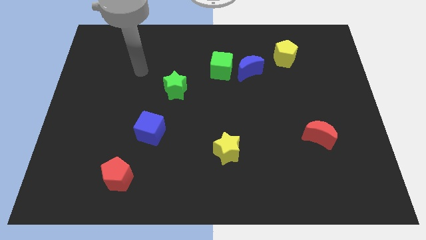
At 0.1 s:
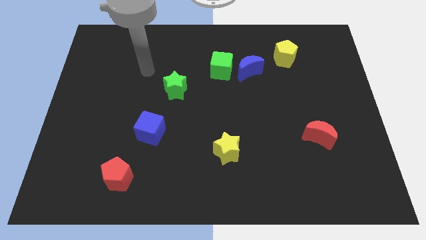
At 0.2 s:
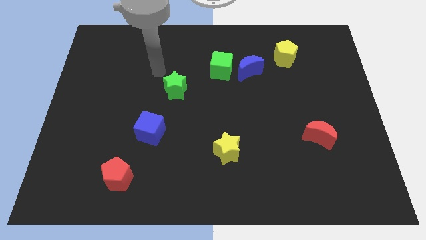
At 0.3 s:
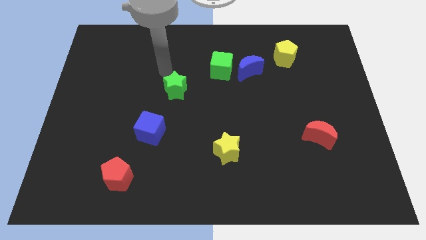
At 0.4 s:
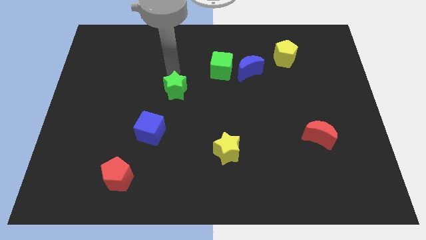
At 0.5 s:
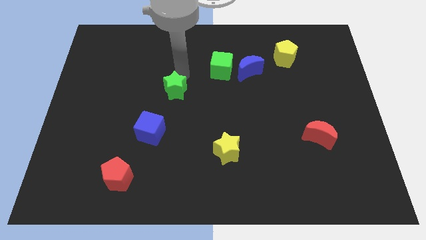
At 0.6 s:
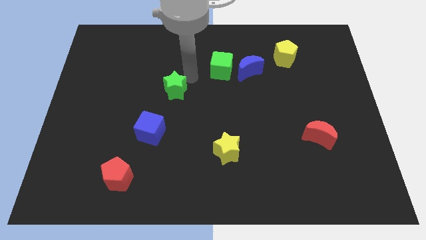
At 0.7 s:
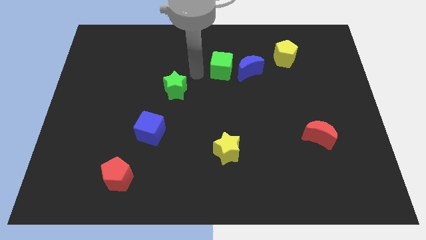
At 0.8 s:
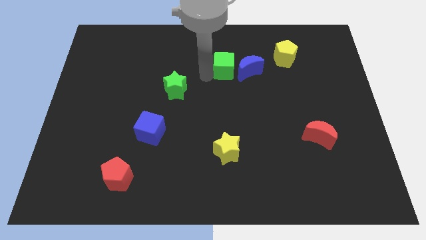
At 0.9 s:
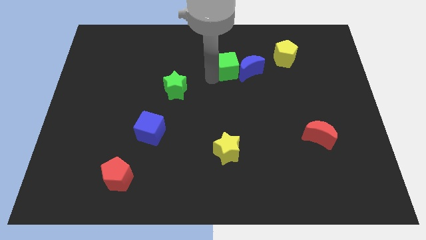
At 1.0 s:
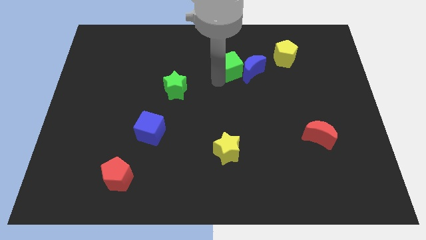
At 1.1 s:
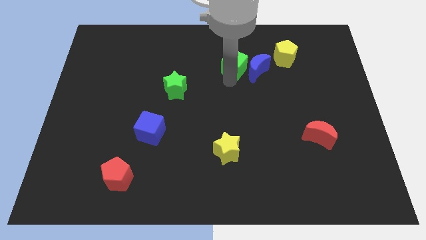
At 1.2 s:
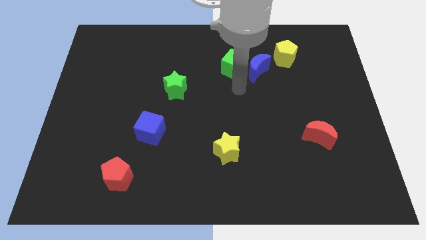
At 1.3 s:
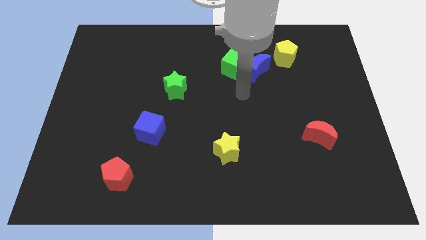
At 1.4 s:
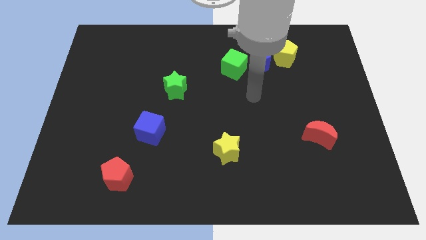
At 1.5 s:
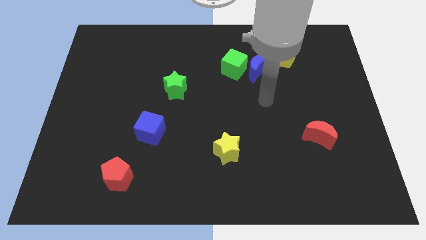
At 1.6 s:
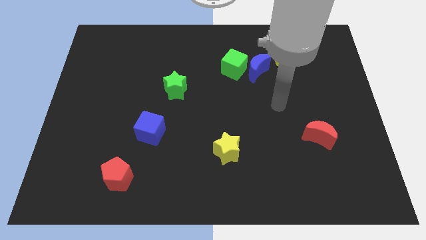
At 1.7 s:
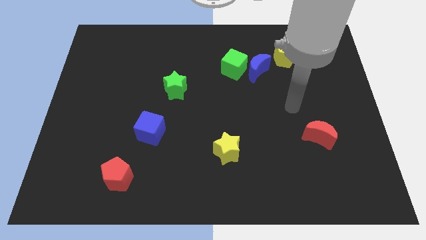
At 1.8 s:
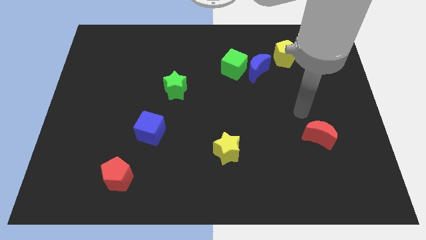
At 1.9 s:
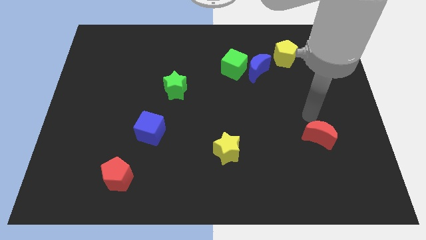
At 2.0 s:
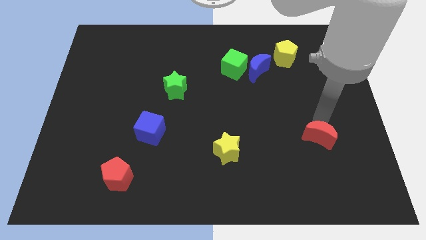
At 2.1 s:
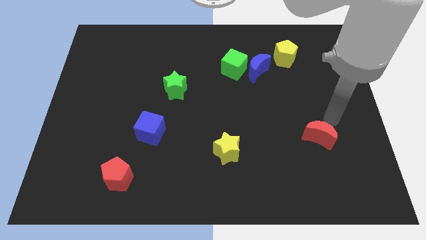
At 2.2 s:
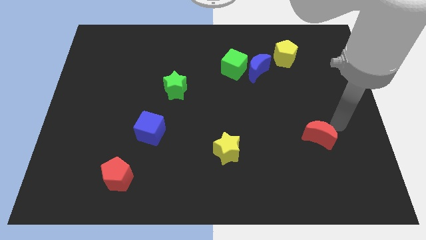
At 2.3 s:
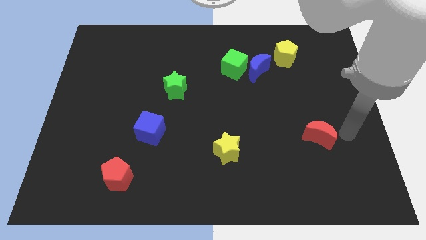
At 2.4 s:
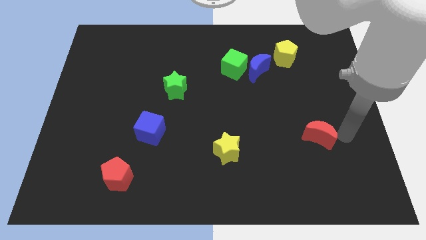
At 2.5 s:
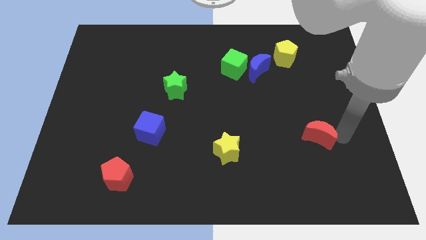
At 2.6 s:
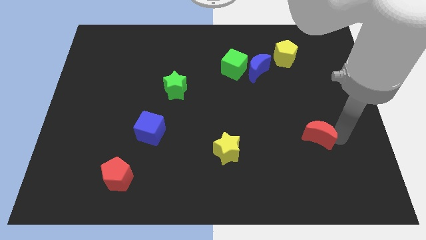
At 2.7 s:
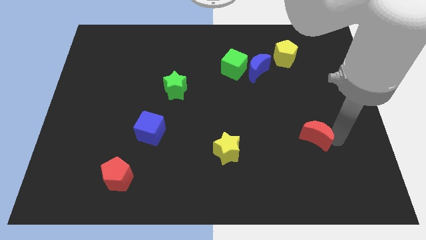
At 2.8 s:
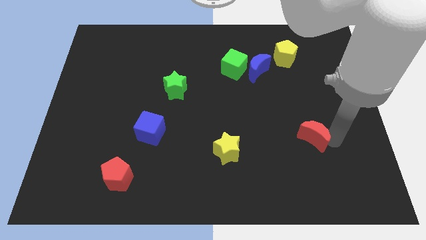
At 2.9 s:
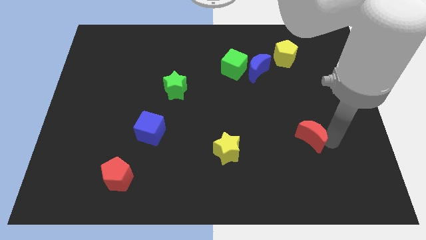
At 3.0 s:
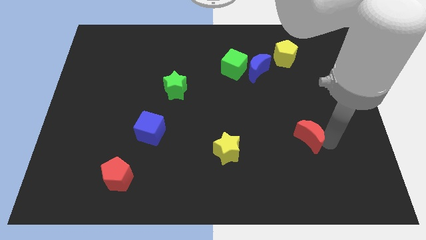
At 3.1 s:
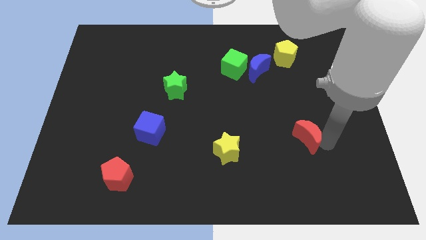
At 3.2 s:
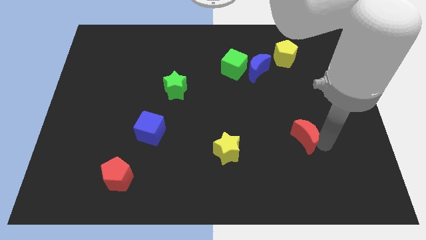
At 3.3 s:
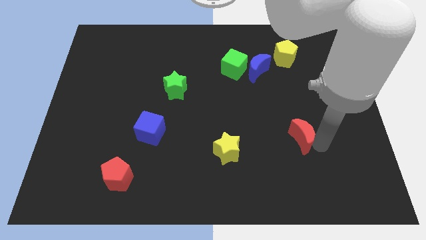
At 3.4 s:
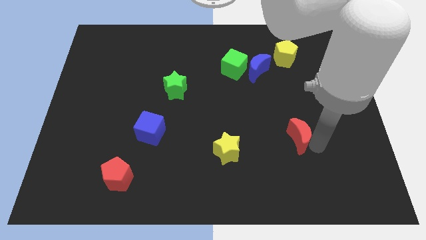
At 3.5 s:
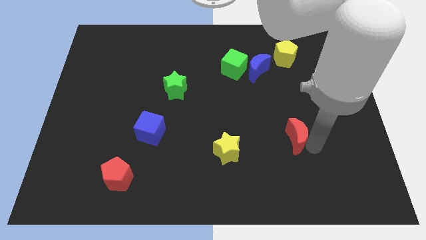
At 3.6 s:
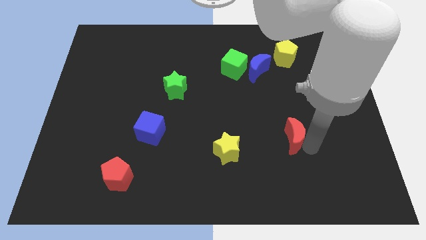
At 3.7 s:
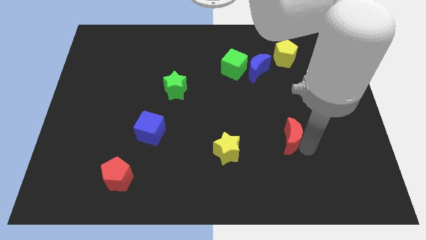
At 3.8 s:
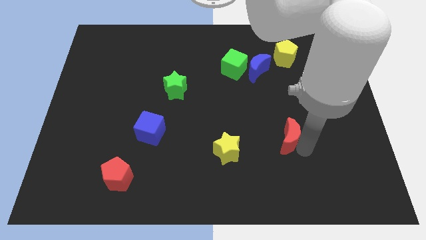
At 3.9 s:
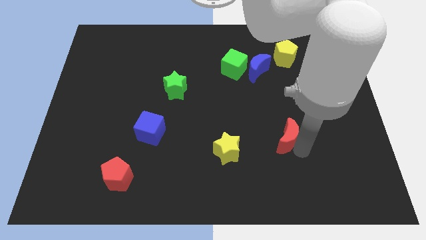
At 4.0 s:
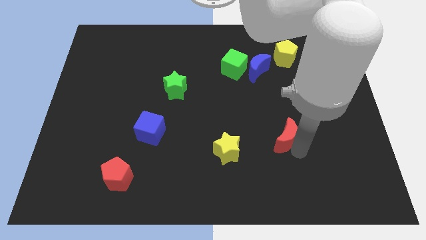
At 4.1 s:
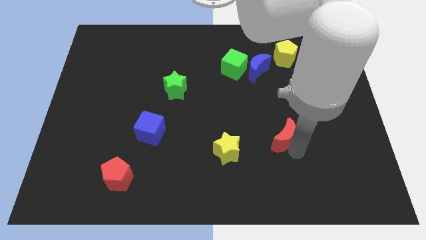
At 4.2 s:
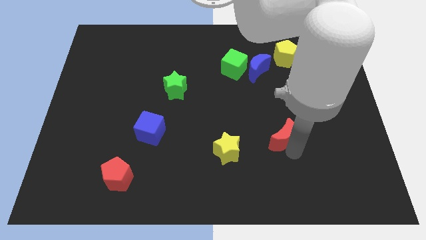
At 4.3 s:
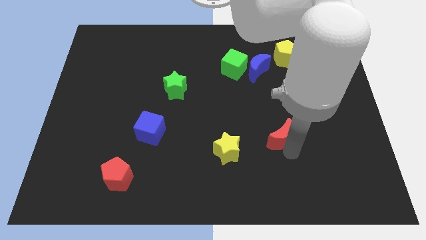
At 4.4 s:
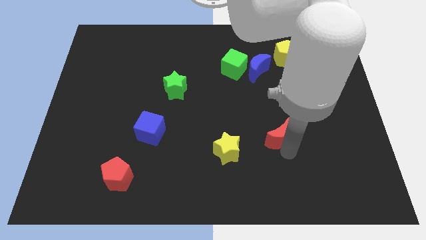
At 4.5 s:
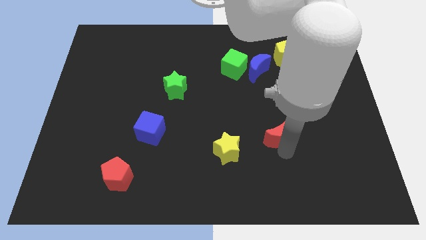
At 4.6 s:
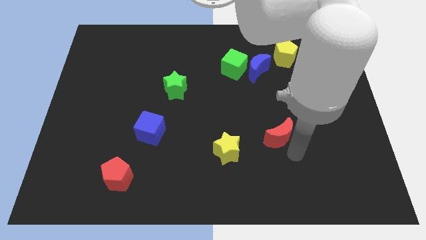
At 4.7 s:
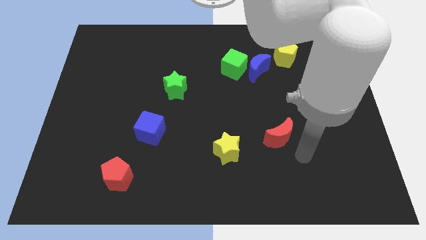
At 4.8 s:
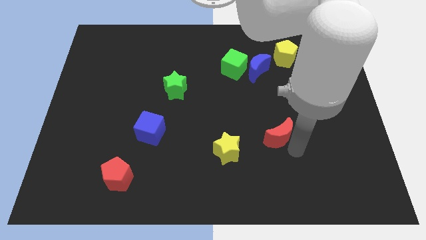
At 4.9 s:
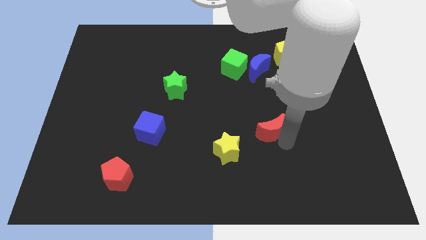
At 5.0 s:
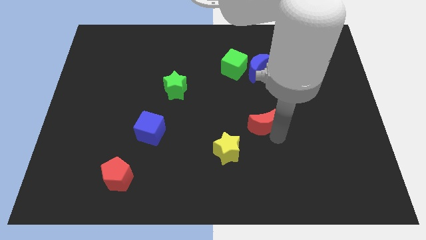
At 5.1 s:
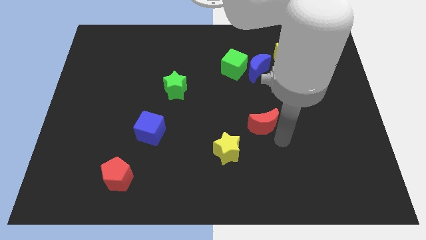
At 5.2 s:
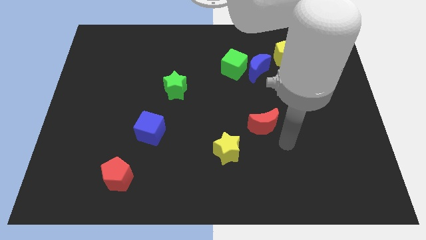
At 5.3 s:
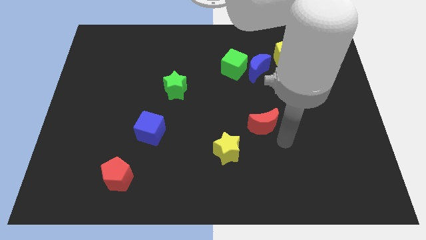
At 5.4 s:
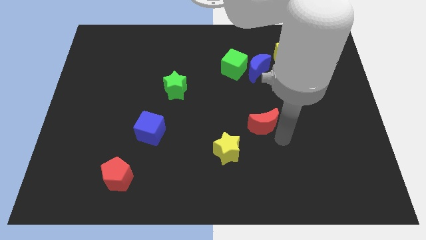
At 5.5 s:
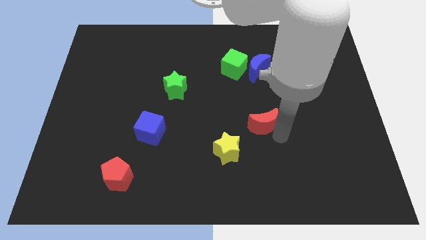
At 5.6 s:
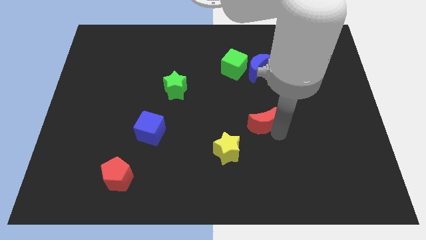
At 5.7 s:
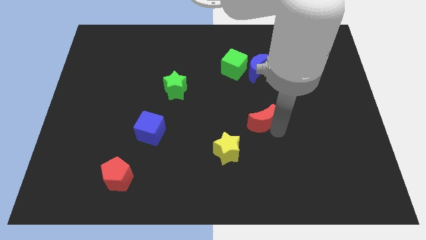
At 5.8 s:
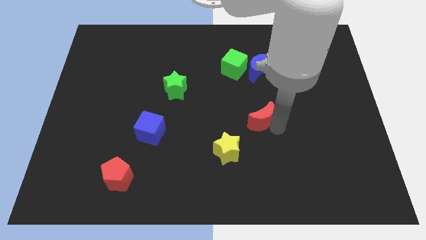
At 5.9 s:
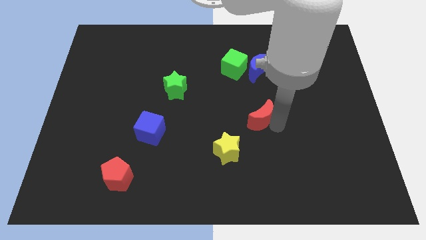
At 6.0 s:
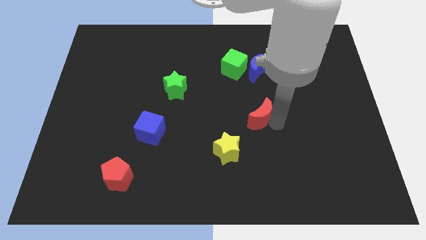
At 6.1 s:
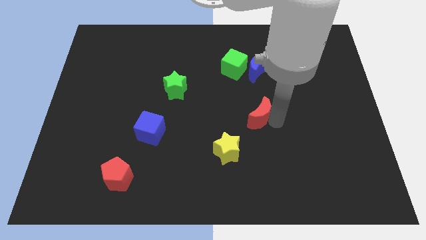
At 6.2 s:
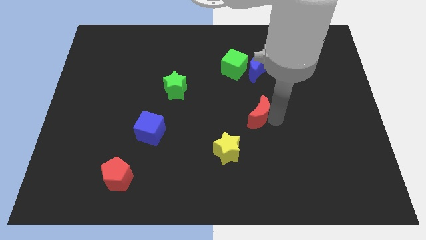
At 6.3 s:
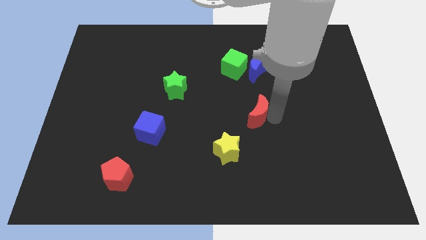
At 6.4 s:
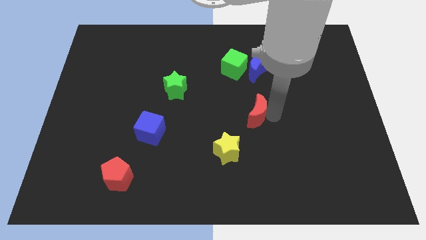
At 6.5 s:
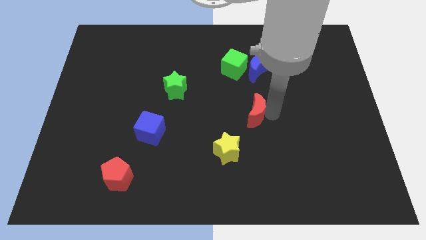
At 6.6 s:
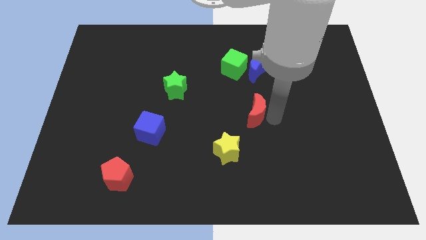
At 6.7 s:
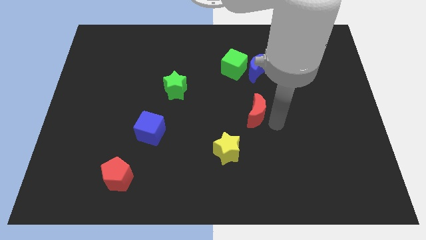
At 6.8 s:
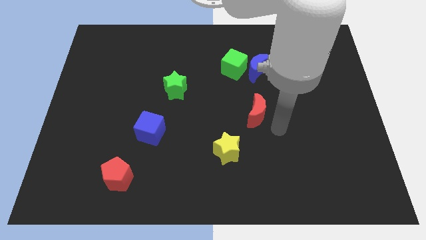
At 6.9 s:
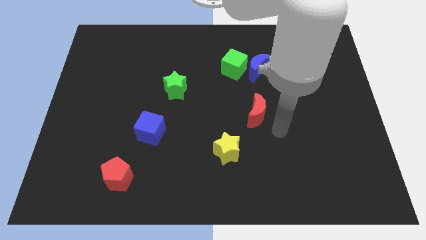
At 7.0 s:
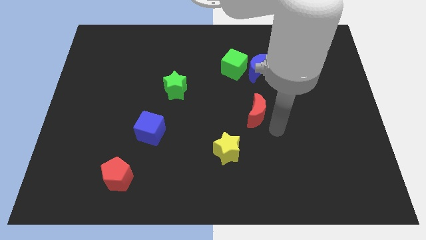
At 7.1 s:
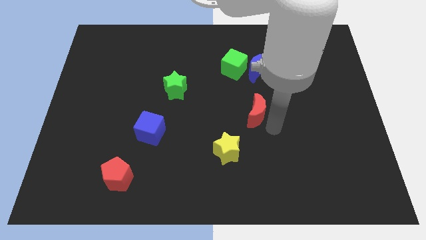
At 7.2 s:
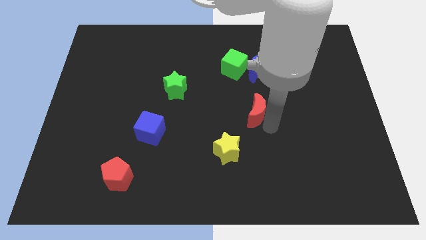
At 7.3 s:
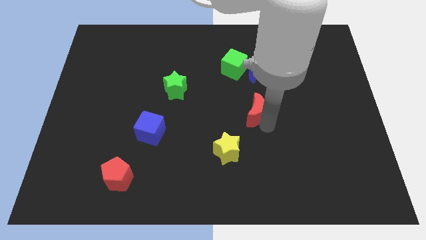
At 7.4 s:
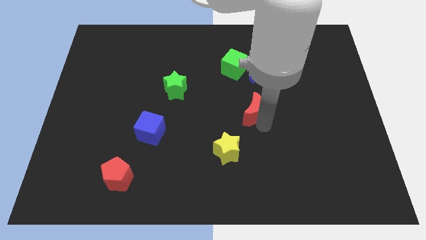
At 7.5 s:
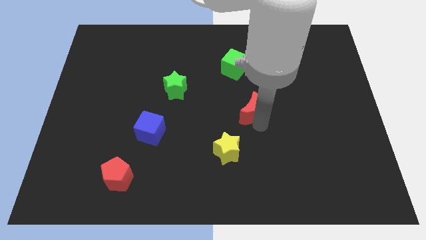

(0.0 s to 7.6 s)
move the red moon below the green cube
